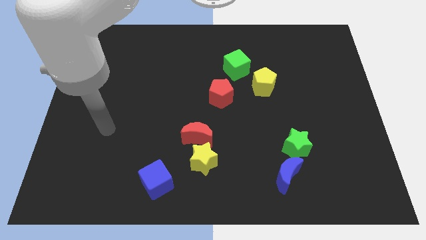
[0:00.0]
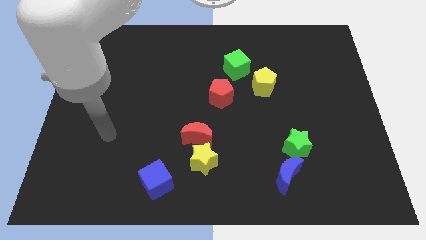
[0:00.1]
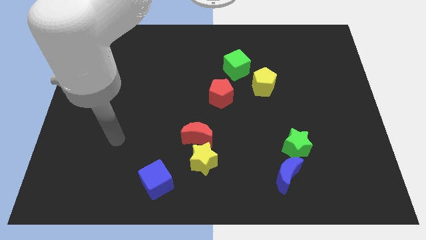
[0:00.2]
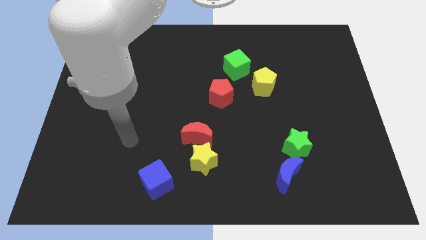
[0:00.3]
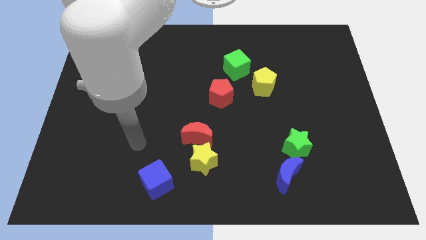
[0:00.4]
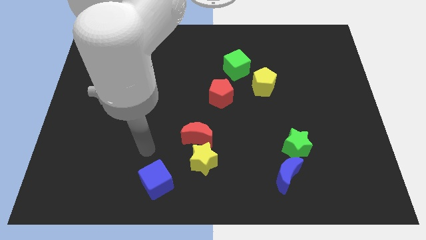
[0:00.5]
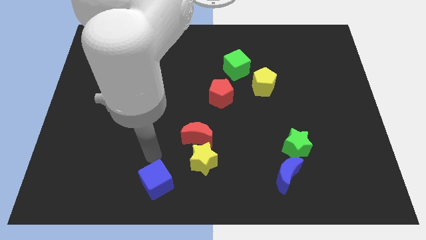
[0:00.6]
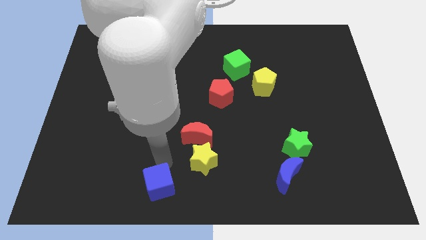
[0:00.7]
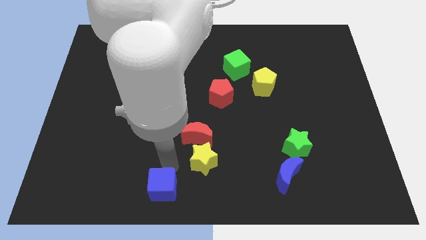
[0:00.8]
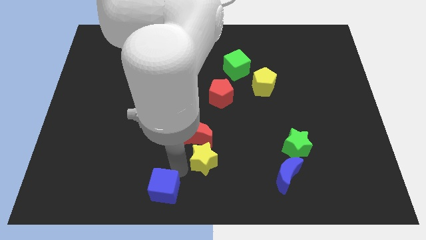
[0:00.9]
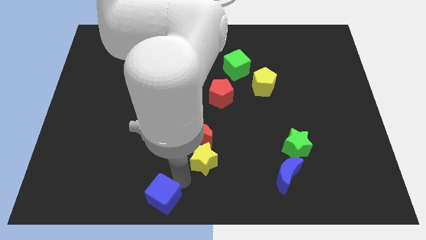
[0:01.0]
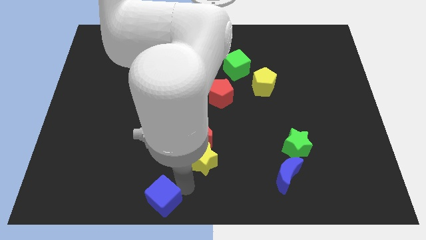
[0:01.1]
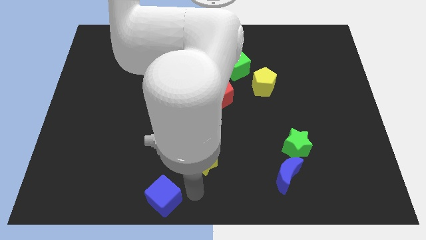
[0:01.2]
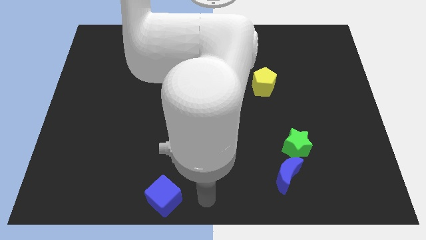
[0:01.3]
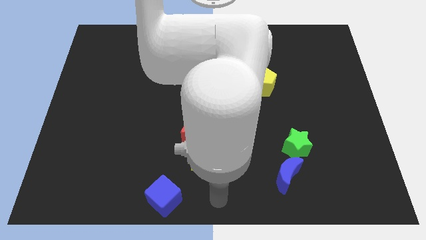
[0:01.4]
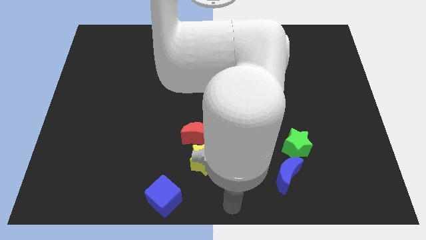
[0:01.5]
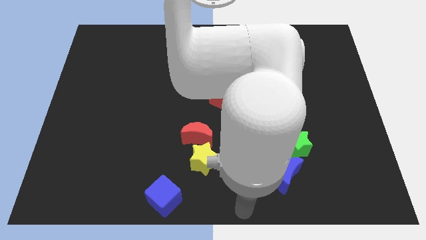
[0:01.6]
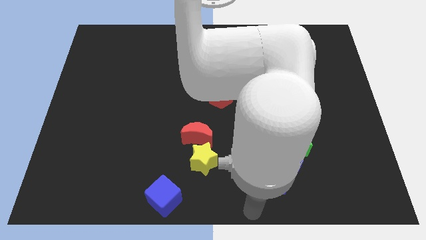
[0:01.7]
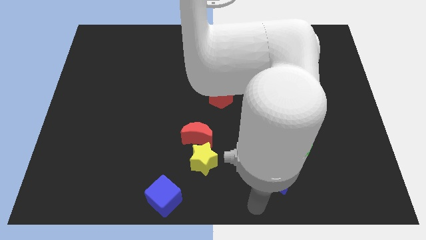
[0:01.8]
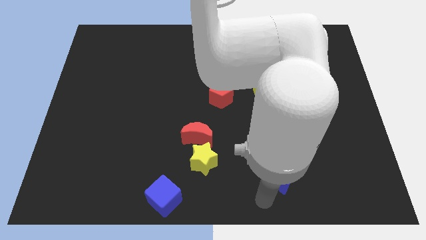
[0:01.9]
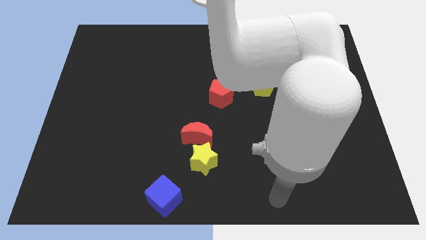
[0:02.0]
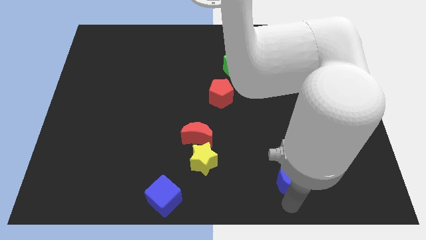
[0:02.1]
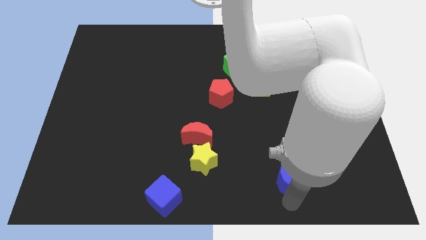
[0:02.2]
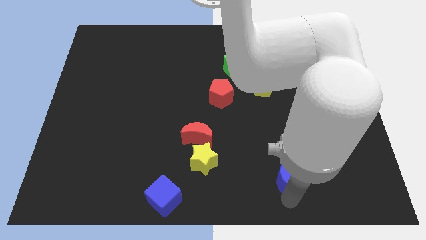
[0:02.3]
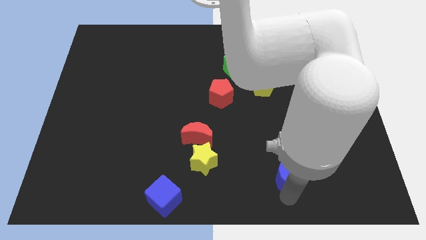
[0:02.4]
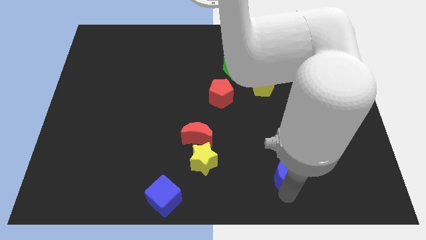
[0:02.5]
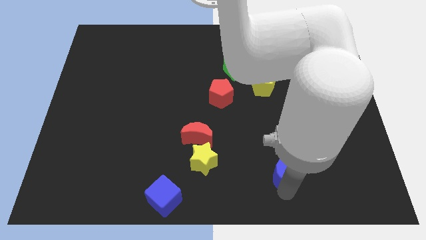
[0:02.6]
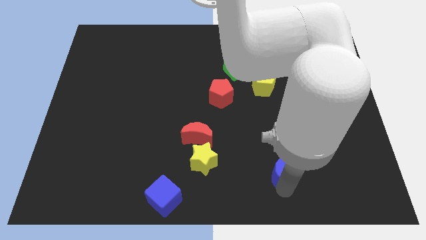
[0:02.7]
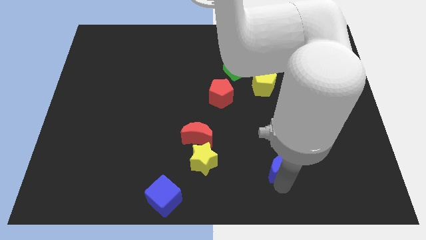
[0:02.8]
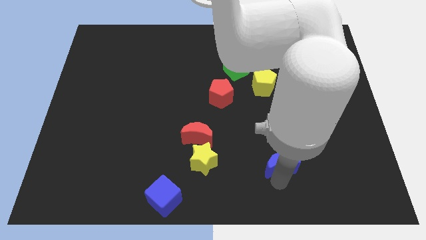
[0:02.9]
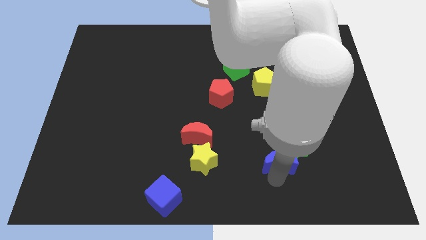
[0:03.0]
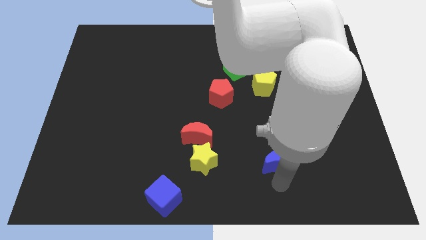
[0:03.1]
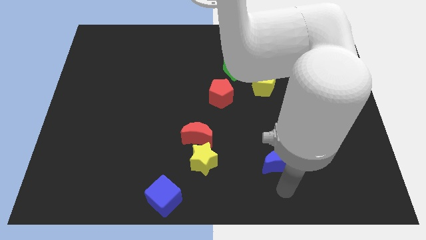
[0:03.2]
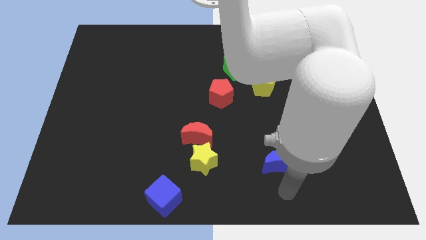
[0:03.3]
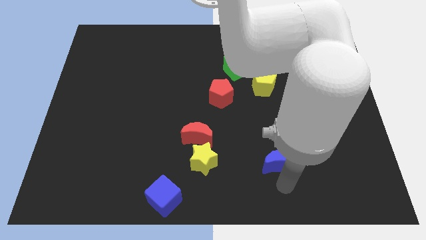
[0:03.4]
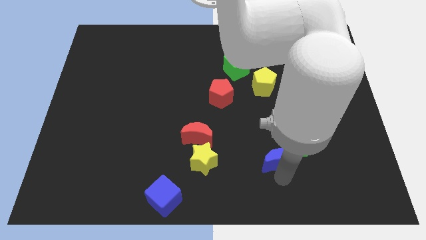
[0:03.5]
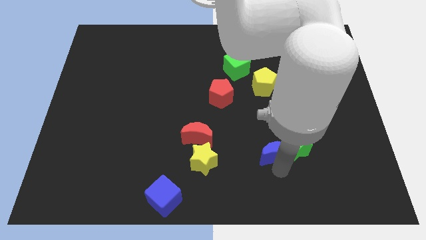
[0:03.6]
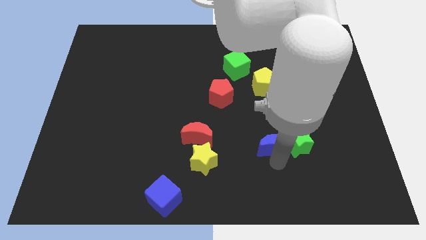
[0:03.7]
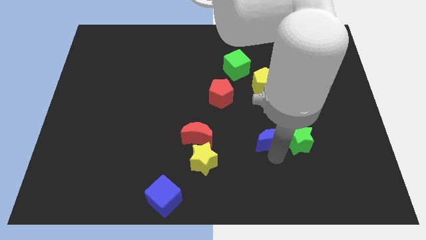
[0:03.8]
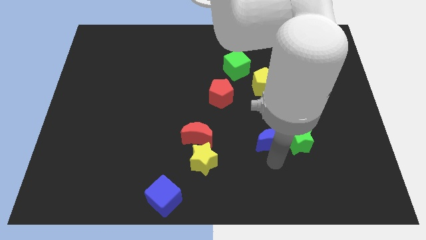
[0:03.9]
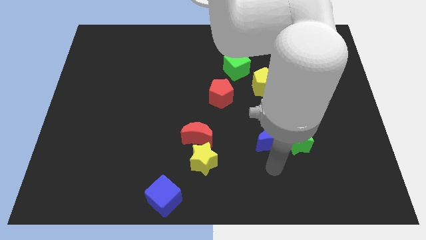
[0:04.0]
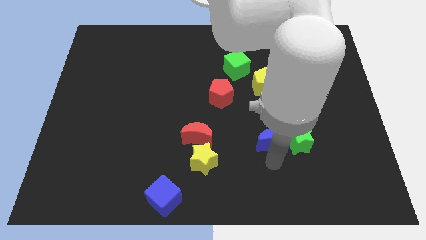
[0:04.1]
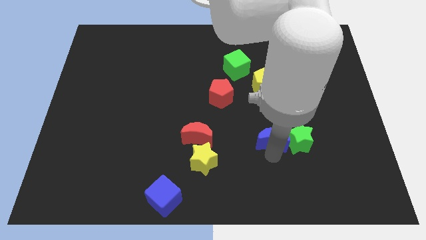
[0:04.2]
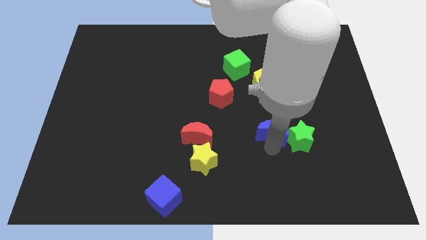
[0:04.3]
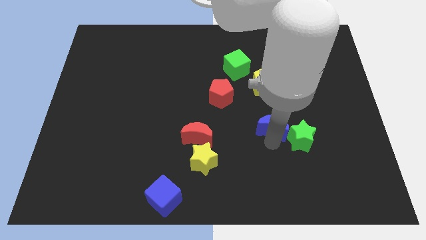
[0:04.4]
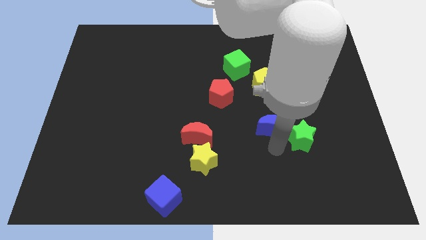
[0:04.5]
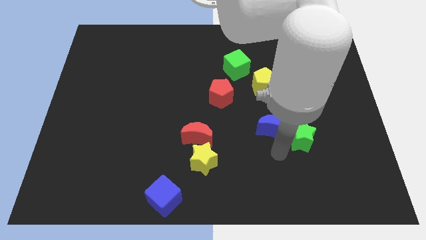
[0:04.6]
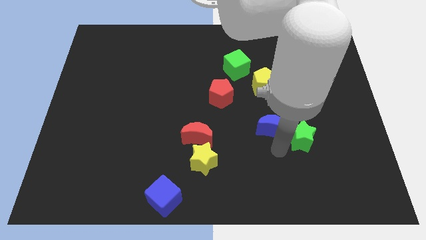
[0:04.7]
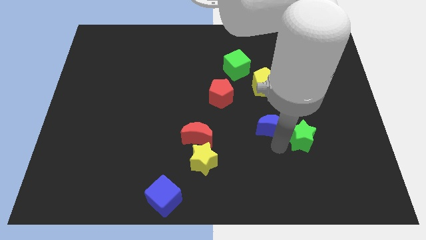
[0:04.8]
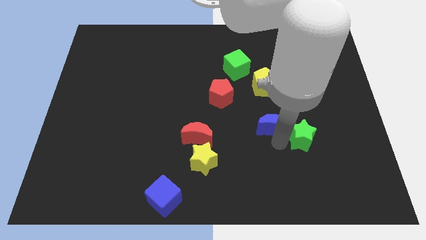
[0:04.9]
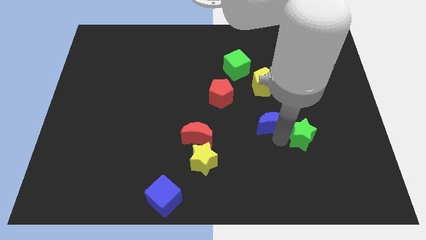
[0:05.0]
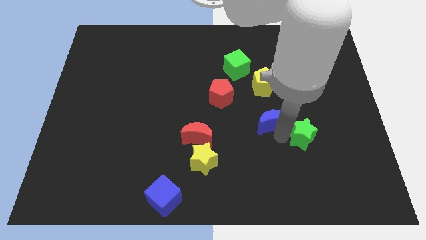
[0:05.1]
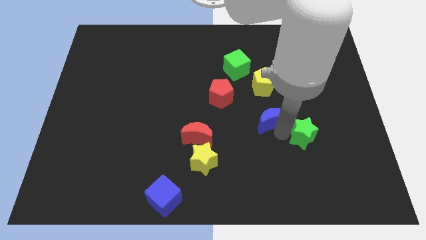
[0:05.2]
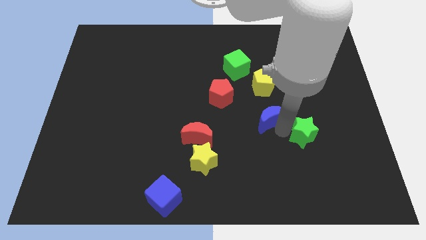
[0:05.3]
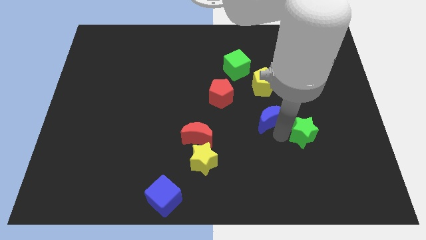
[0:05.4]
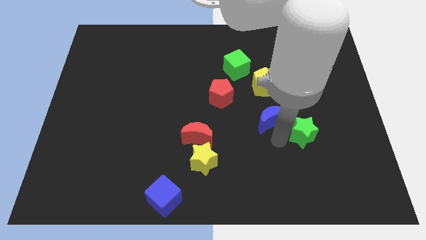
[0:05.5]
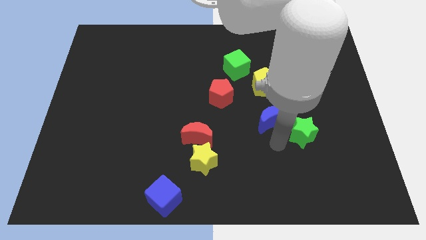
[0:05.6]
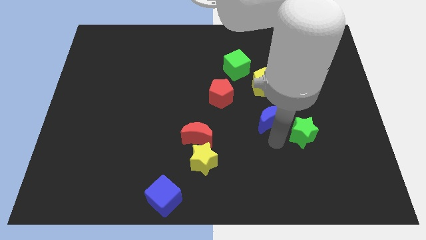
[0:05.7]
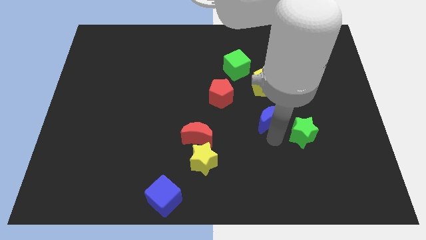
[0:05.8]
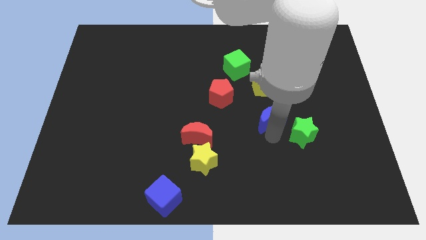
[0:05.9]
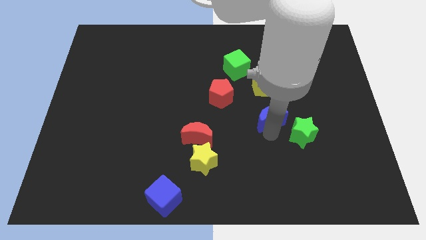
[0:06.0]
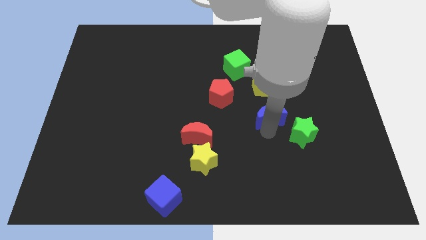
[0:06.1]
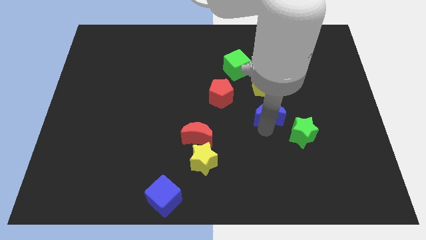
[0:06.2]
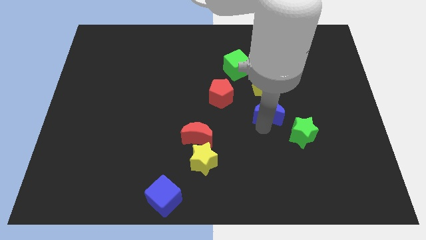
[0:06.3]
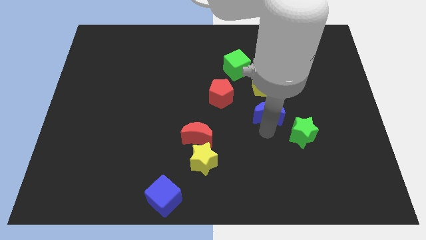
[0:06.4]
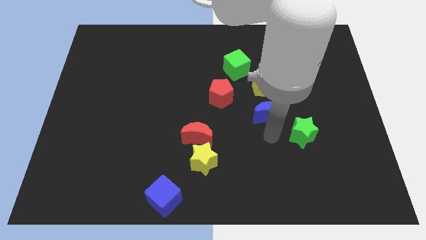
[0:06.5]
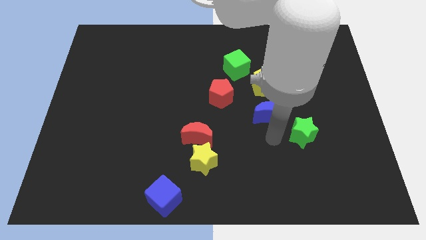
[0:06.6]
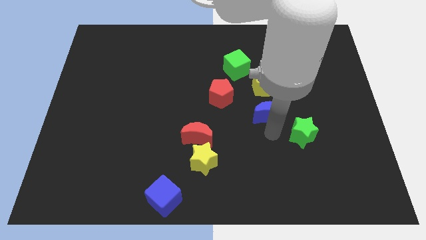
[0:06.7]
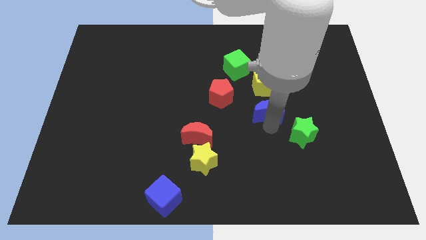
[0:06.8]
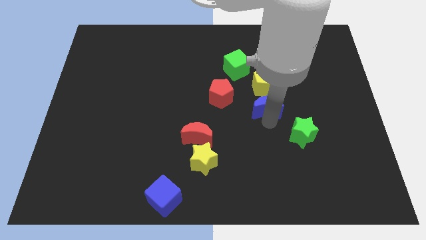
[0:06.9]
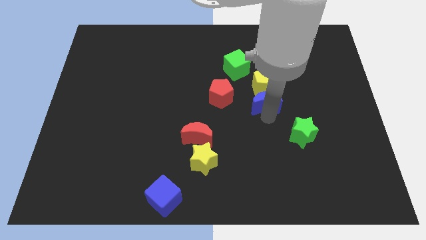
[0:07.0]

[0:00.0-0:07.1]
move the blue moon to the yellow pentagon

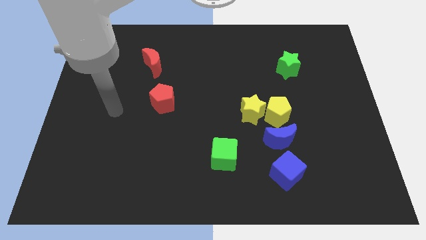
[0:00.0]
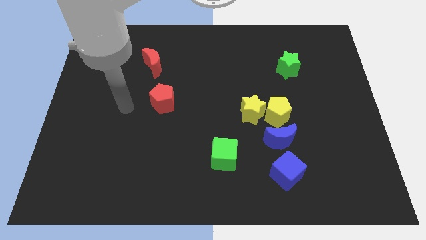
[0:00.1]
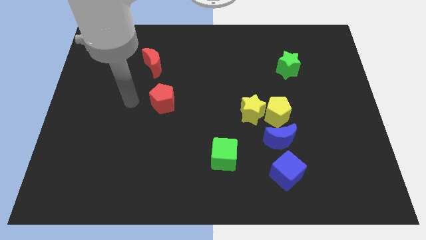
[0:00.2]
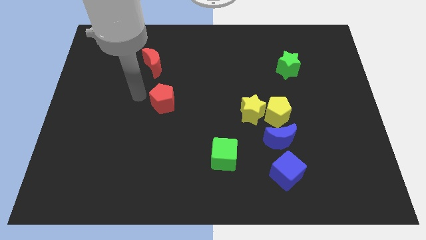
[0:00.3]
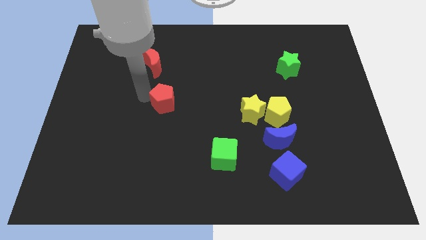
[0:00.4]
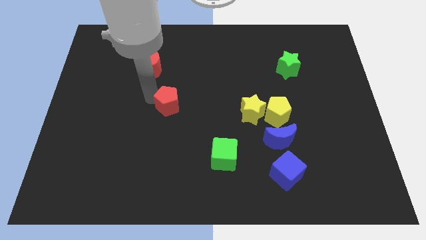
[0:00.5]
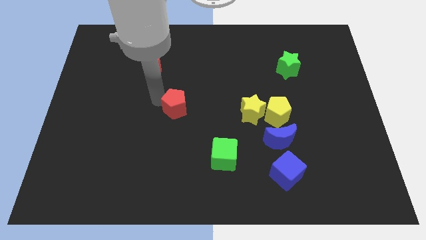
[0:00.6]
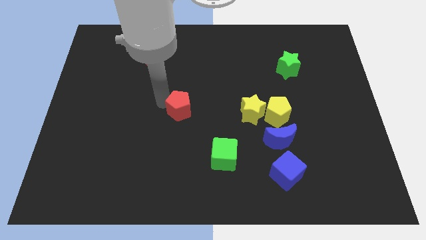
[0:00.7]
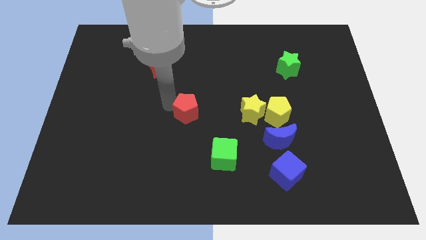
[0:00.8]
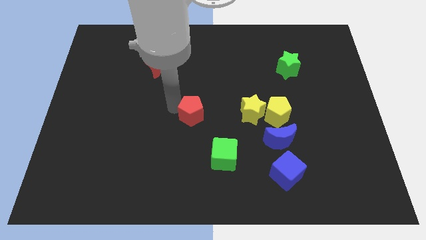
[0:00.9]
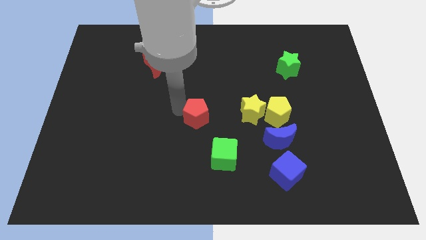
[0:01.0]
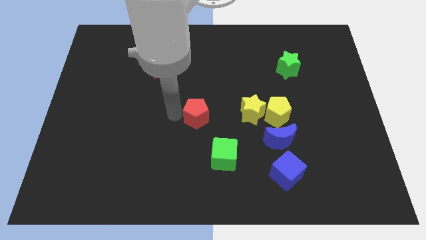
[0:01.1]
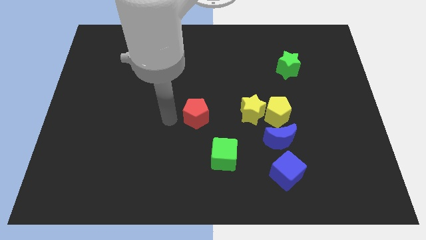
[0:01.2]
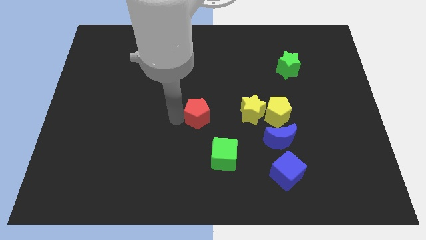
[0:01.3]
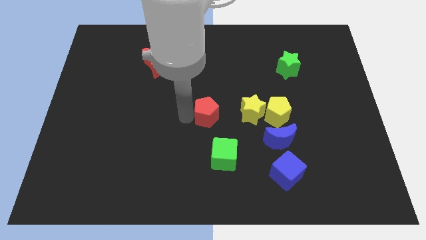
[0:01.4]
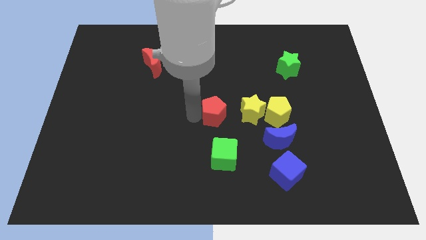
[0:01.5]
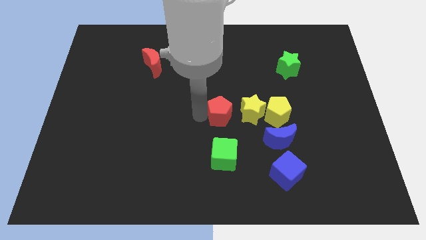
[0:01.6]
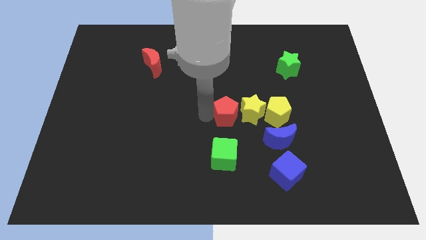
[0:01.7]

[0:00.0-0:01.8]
slide the red pentagon next to the yellow star
